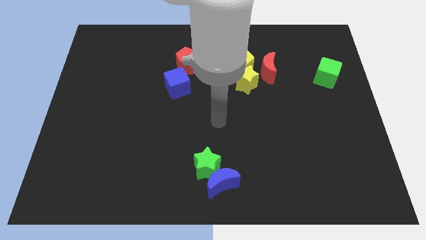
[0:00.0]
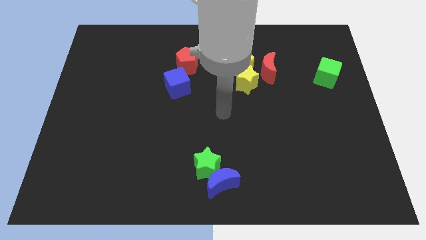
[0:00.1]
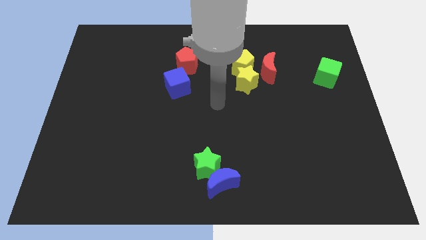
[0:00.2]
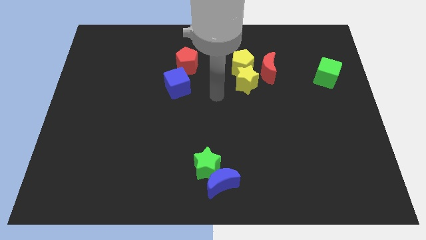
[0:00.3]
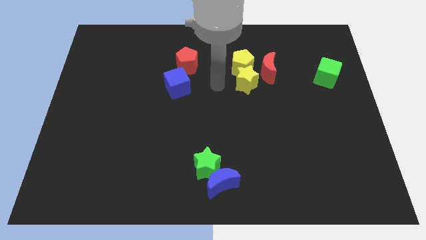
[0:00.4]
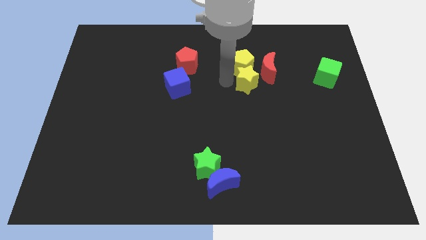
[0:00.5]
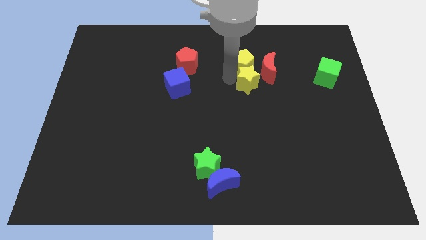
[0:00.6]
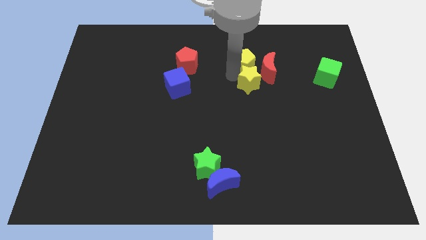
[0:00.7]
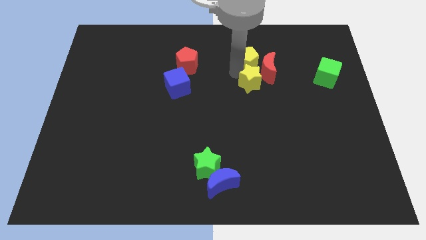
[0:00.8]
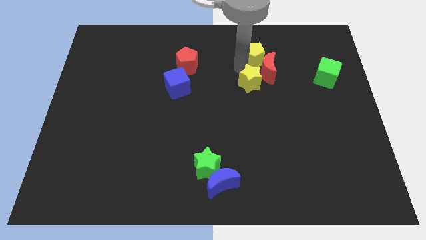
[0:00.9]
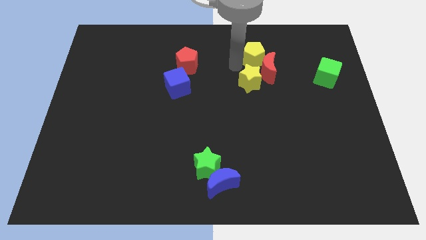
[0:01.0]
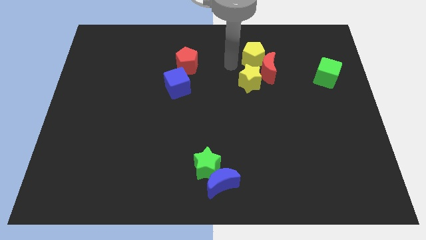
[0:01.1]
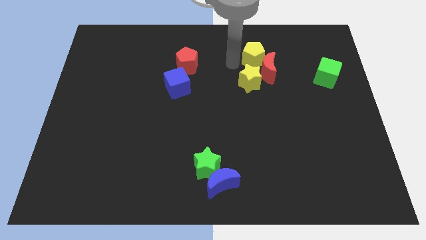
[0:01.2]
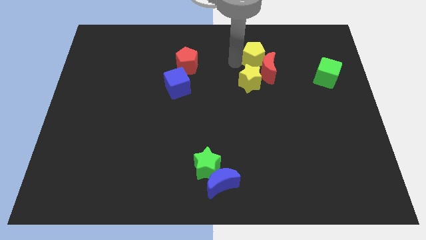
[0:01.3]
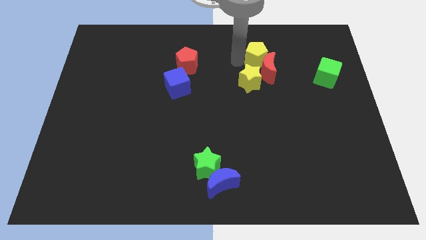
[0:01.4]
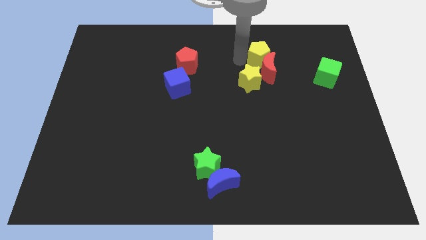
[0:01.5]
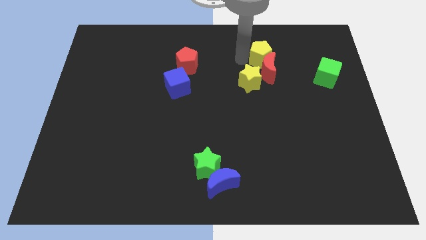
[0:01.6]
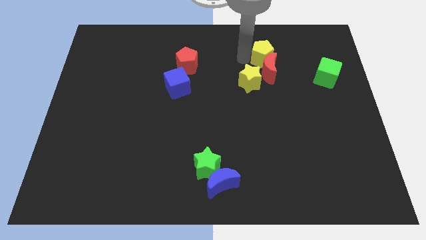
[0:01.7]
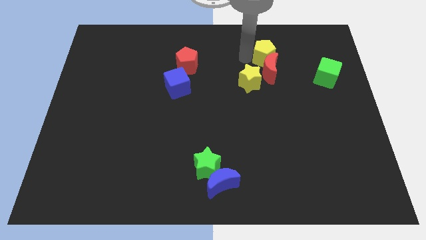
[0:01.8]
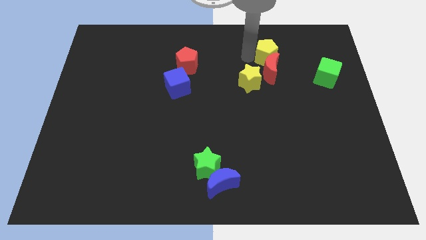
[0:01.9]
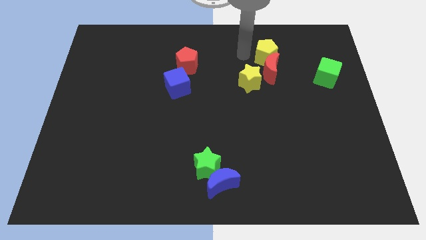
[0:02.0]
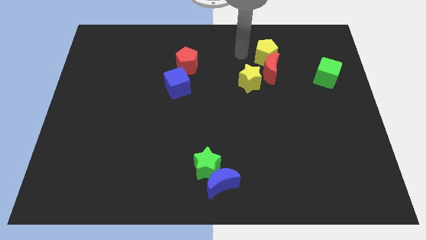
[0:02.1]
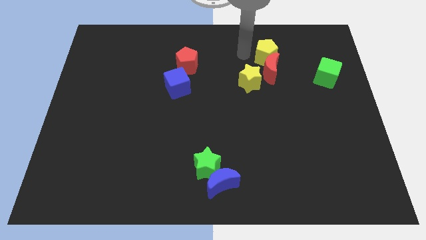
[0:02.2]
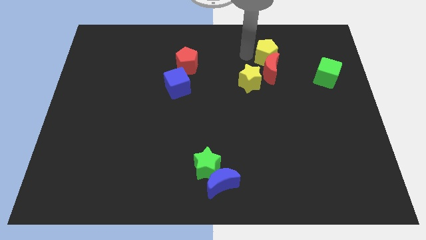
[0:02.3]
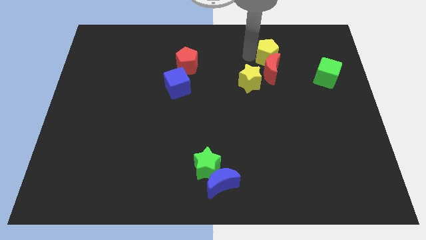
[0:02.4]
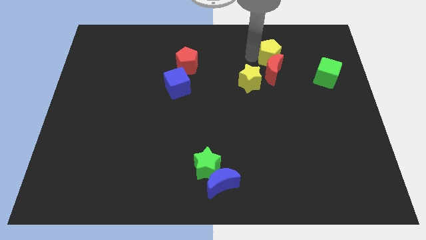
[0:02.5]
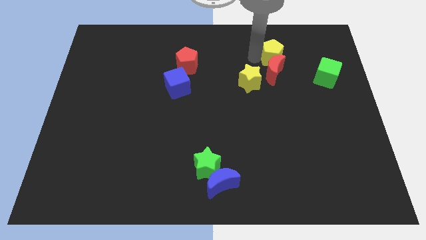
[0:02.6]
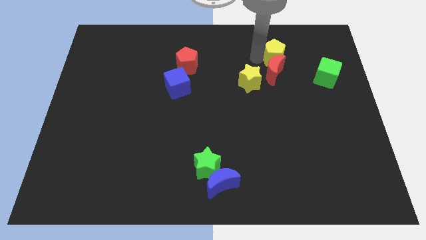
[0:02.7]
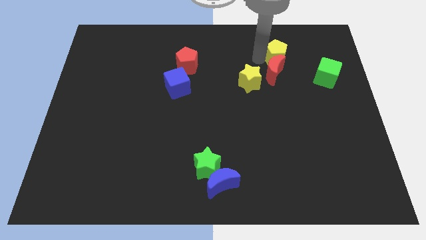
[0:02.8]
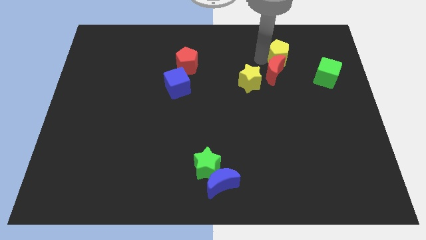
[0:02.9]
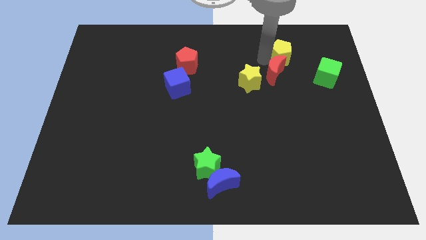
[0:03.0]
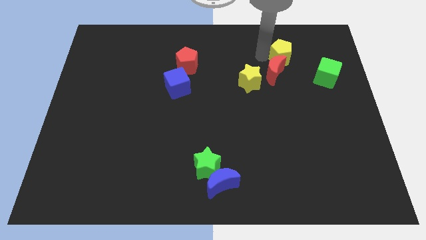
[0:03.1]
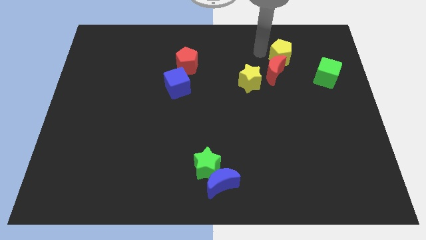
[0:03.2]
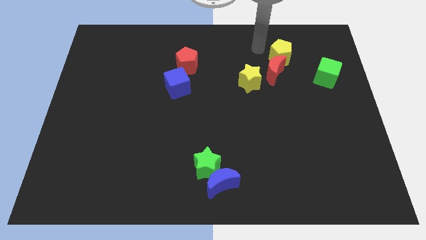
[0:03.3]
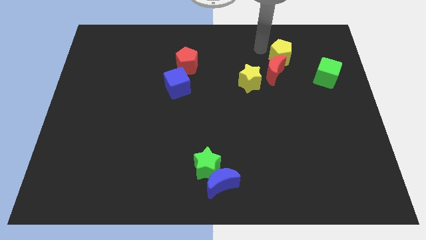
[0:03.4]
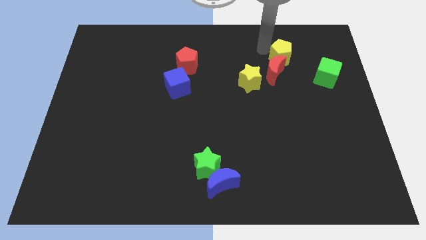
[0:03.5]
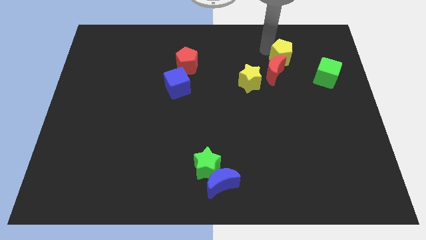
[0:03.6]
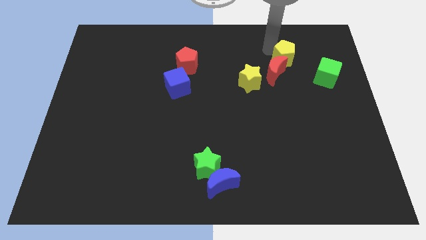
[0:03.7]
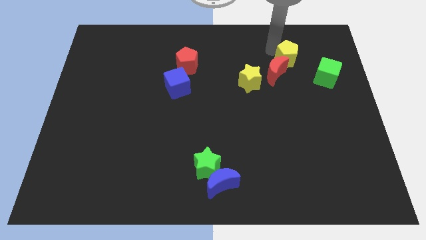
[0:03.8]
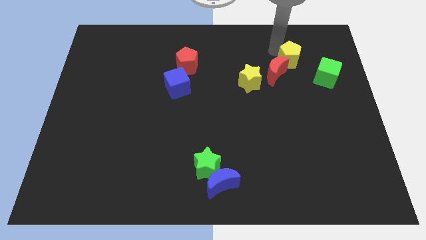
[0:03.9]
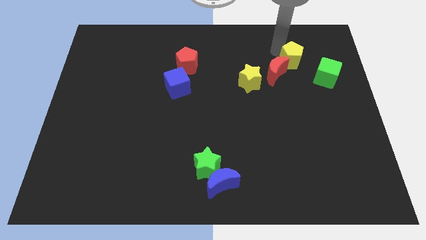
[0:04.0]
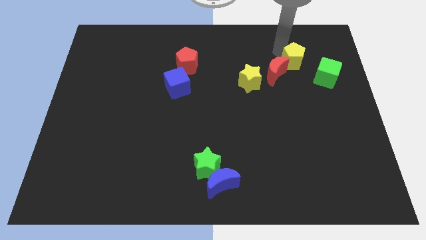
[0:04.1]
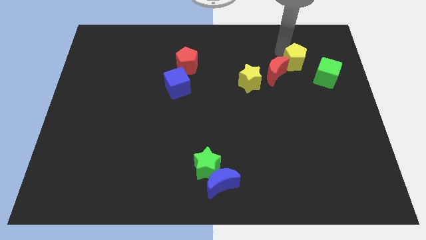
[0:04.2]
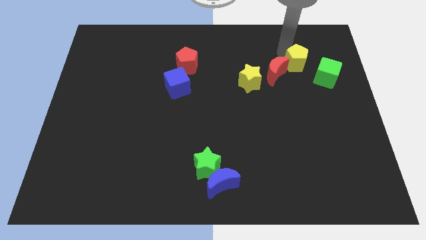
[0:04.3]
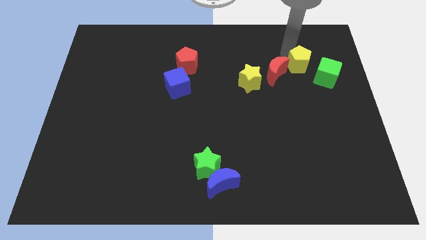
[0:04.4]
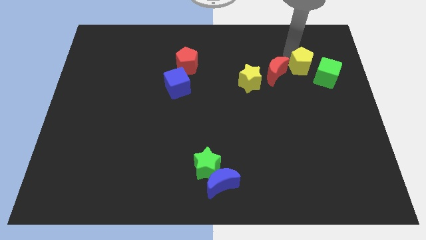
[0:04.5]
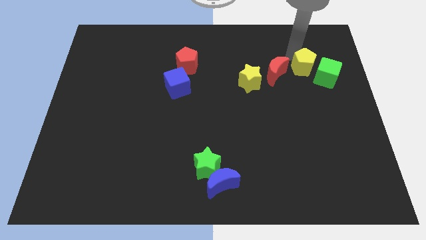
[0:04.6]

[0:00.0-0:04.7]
move the yellow pentagon towards the green cube

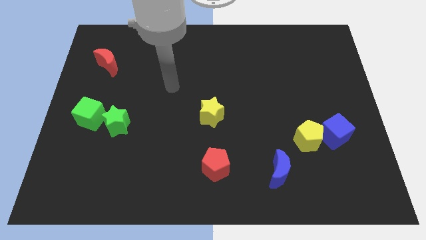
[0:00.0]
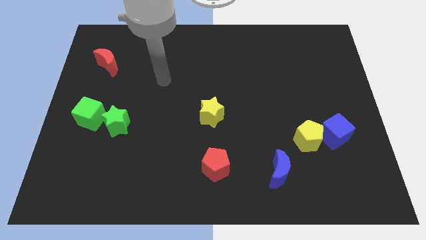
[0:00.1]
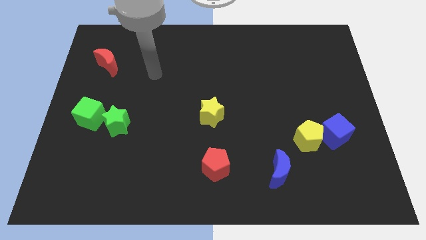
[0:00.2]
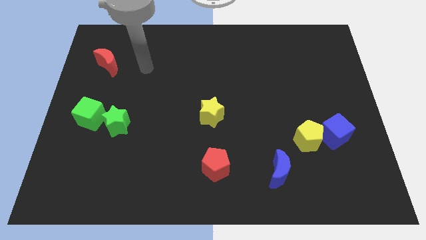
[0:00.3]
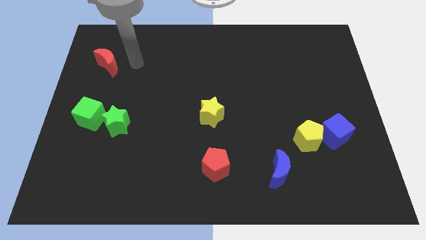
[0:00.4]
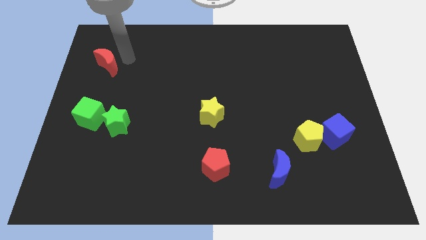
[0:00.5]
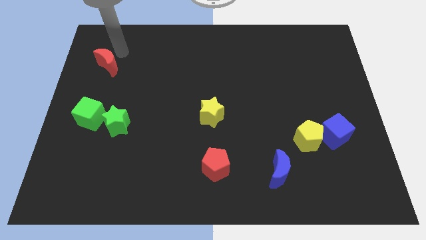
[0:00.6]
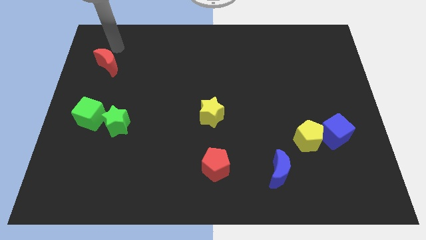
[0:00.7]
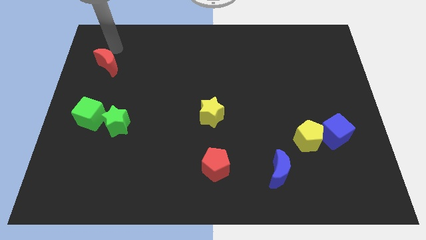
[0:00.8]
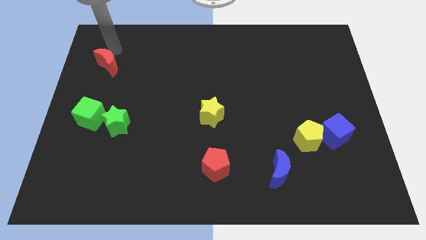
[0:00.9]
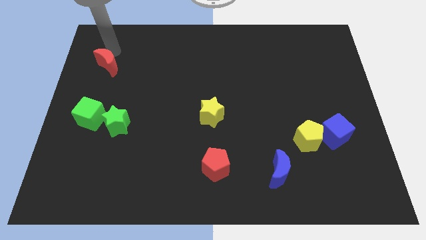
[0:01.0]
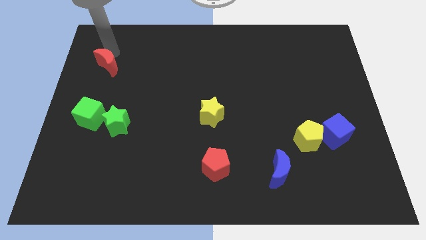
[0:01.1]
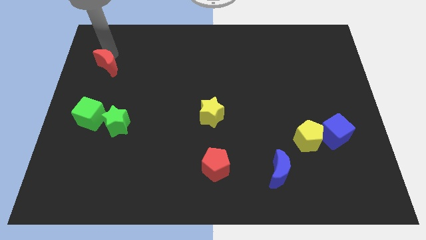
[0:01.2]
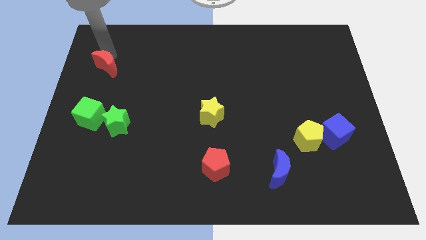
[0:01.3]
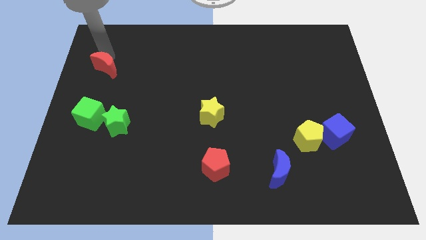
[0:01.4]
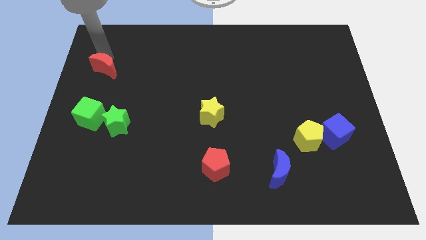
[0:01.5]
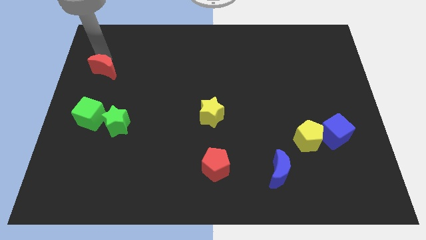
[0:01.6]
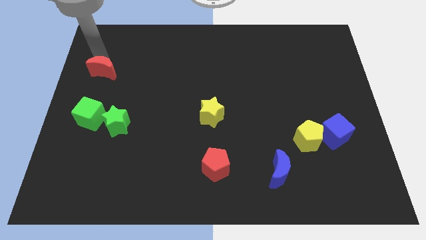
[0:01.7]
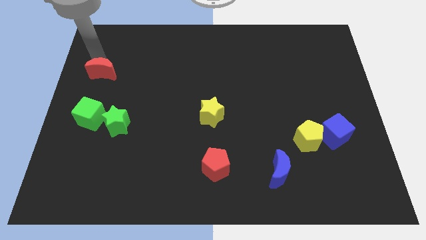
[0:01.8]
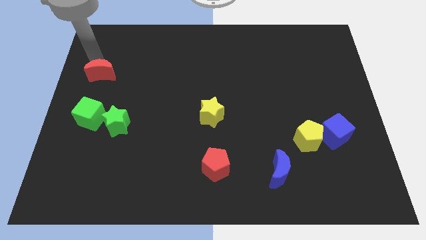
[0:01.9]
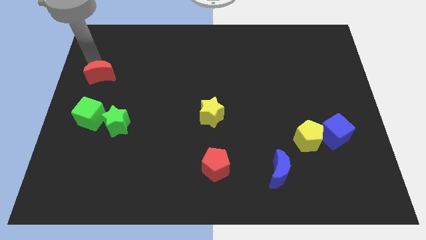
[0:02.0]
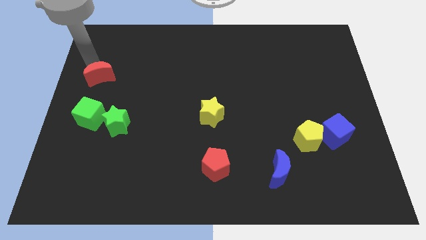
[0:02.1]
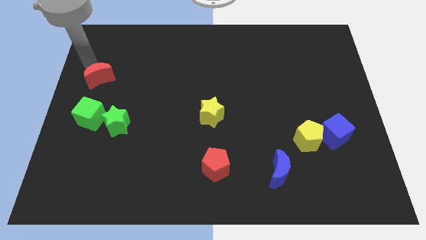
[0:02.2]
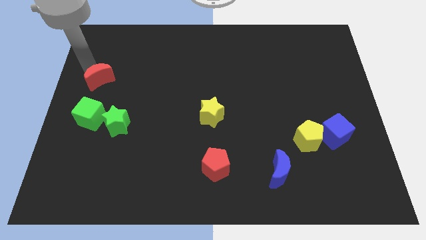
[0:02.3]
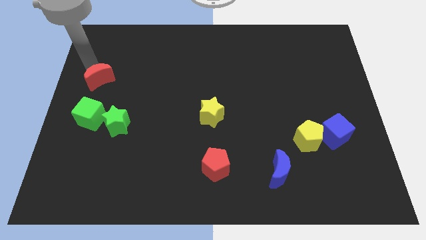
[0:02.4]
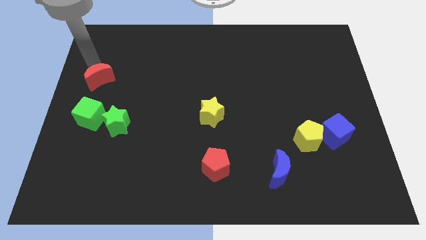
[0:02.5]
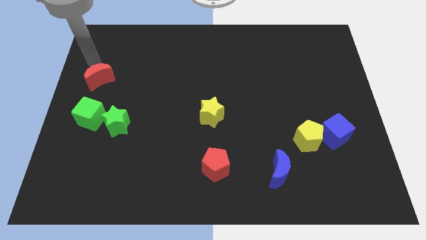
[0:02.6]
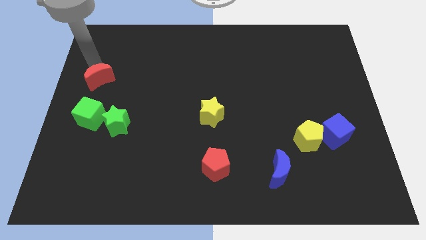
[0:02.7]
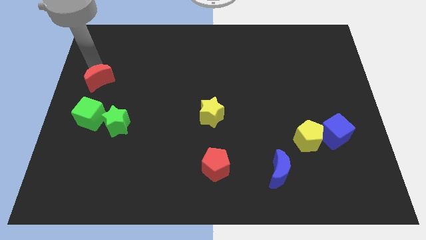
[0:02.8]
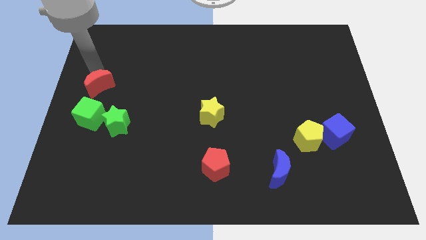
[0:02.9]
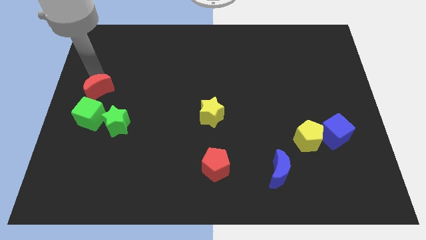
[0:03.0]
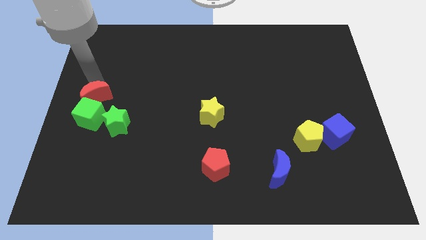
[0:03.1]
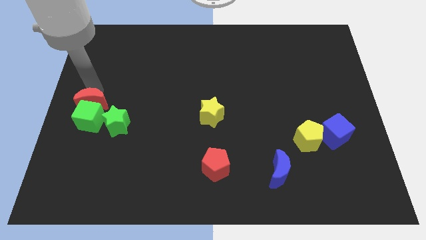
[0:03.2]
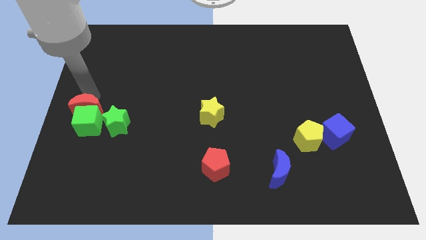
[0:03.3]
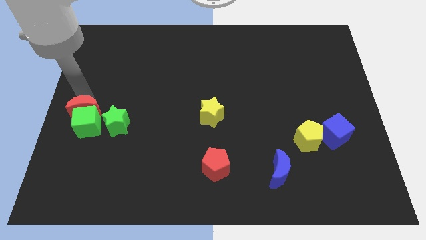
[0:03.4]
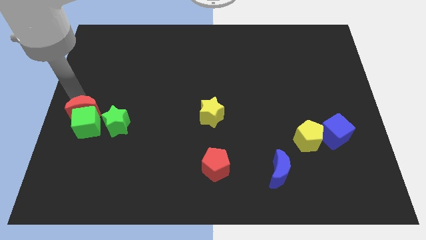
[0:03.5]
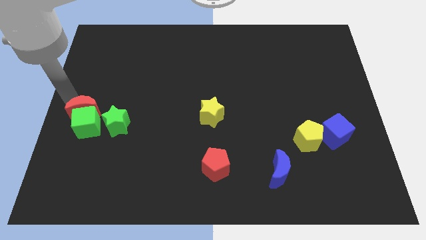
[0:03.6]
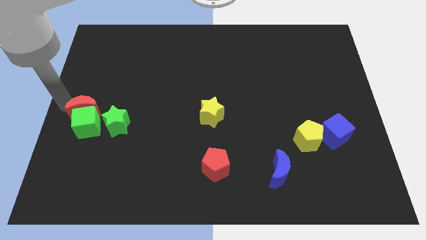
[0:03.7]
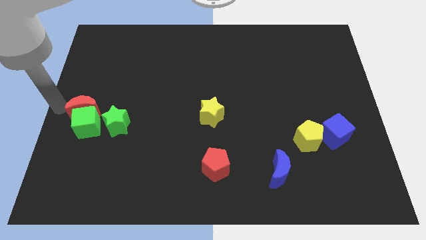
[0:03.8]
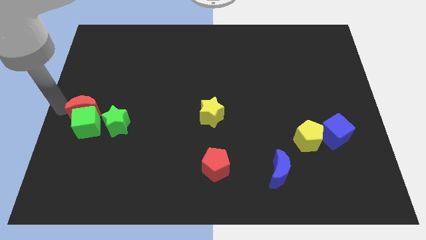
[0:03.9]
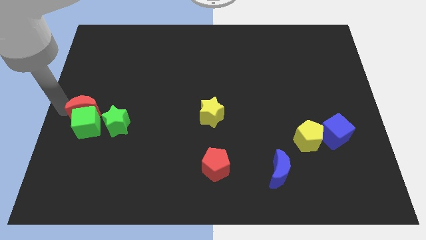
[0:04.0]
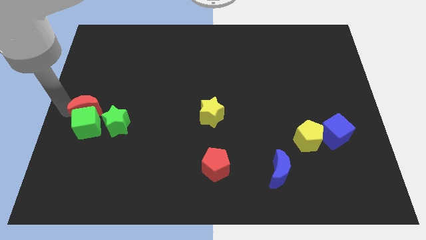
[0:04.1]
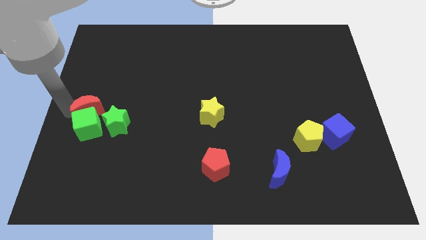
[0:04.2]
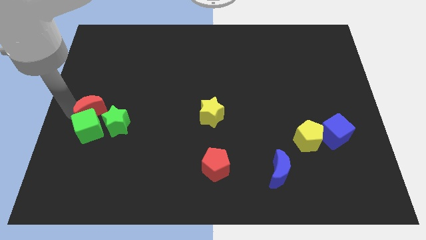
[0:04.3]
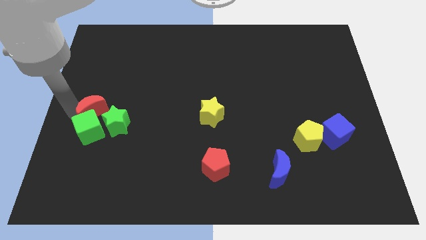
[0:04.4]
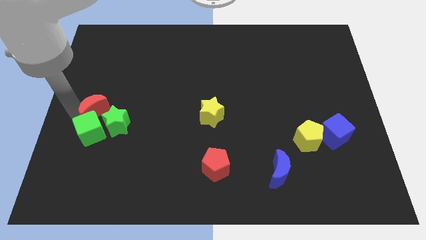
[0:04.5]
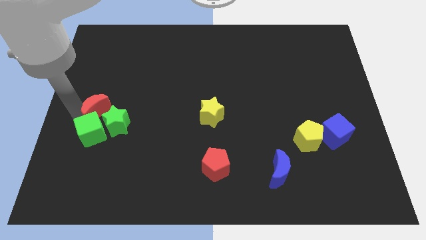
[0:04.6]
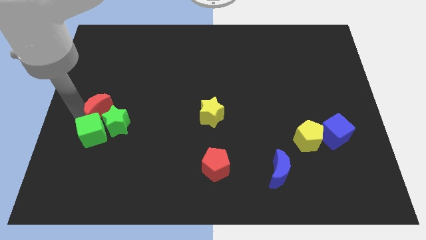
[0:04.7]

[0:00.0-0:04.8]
move the red moon towards the green star
